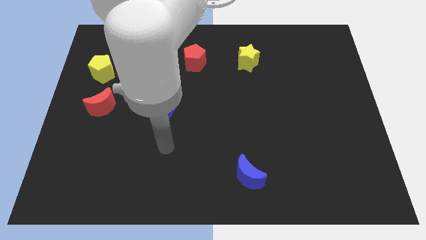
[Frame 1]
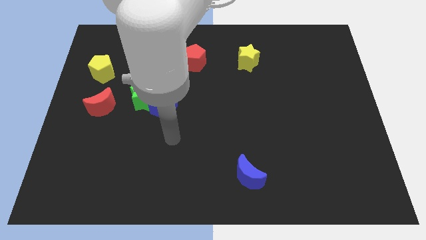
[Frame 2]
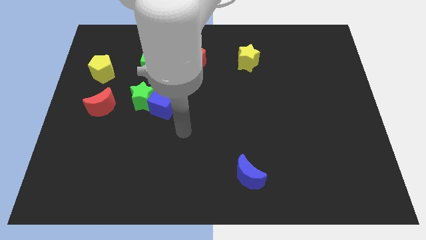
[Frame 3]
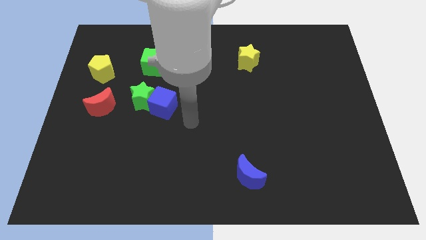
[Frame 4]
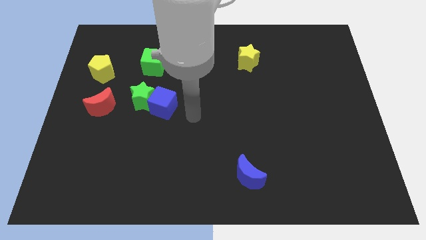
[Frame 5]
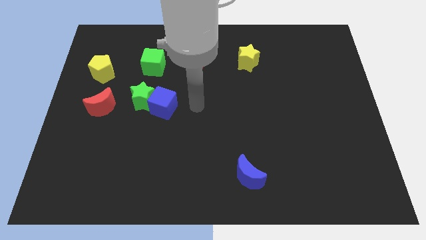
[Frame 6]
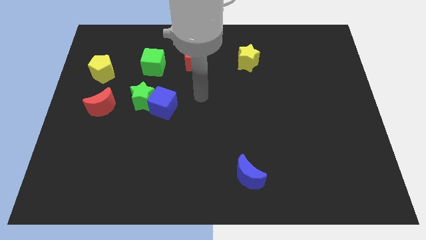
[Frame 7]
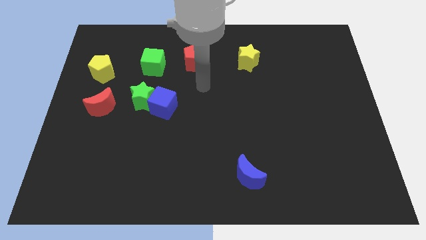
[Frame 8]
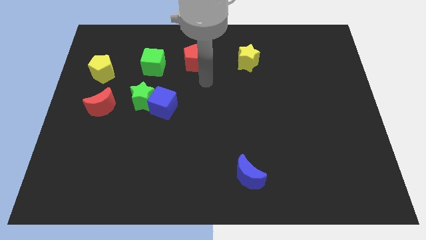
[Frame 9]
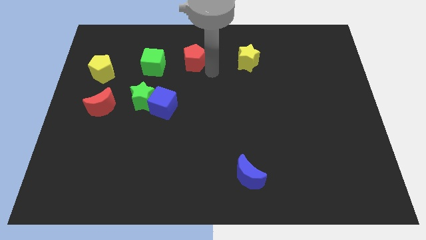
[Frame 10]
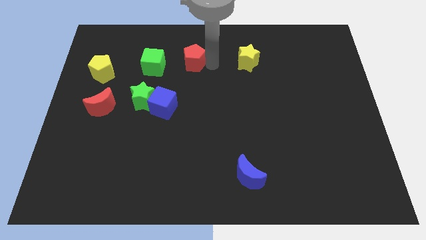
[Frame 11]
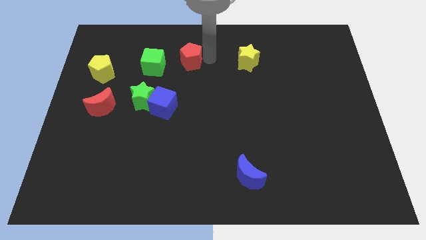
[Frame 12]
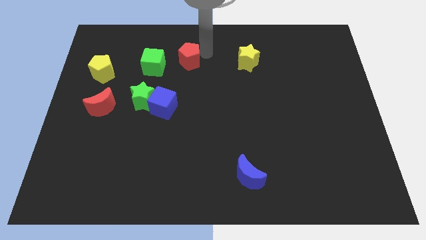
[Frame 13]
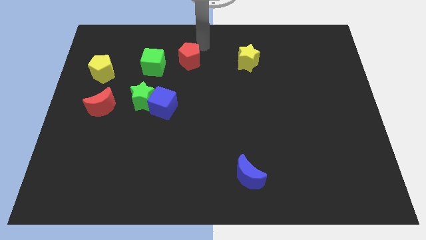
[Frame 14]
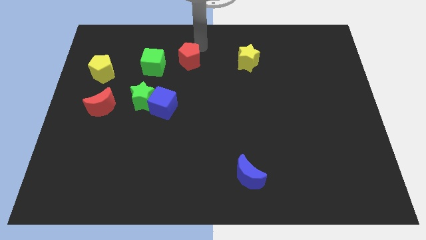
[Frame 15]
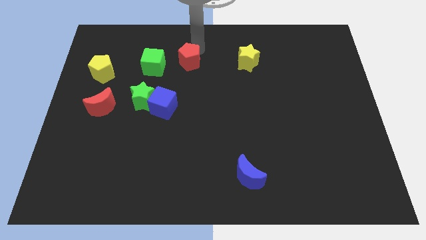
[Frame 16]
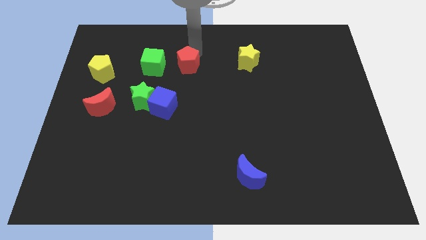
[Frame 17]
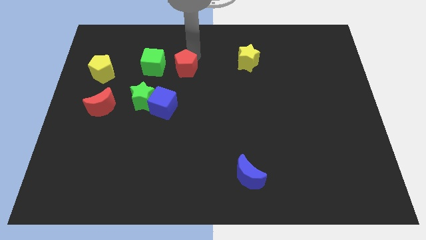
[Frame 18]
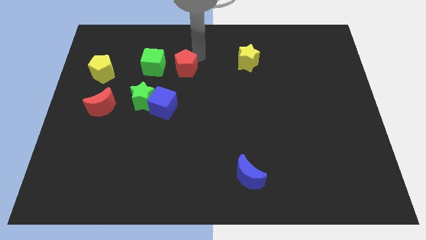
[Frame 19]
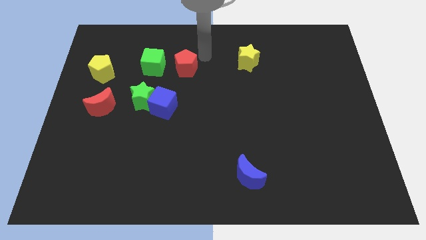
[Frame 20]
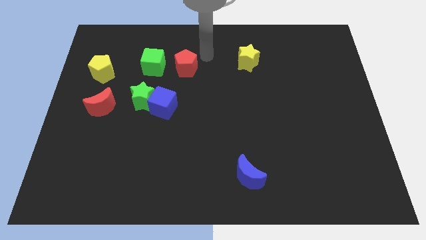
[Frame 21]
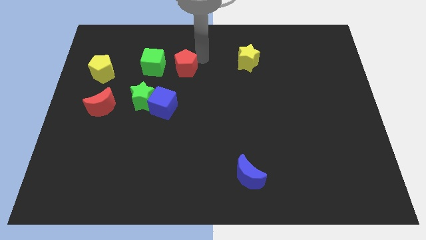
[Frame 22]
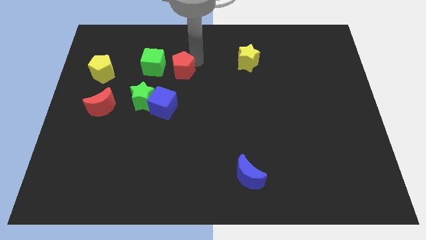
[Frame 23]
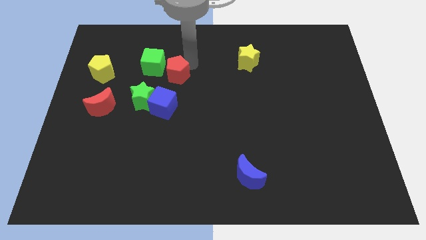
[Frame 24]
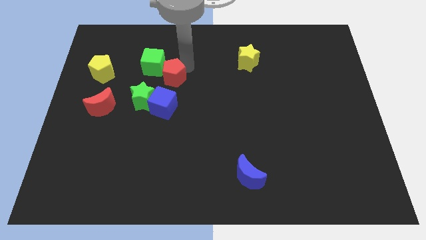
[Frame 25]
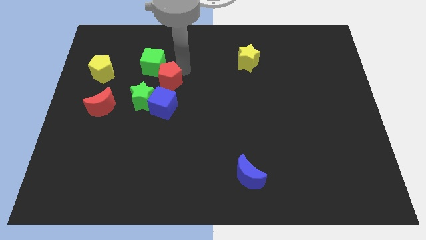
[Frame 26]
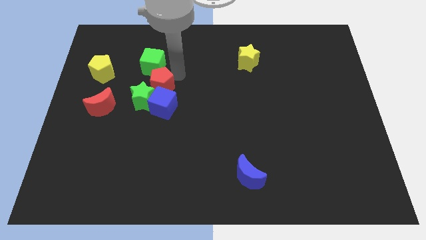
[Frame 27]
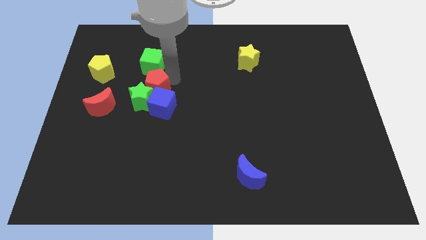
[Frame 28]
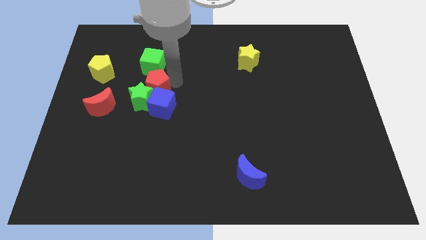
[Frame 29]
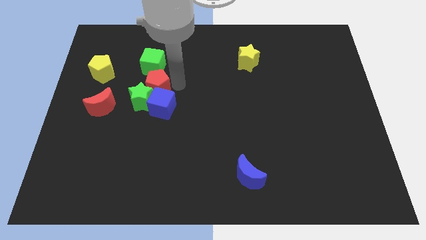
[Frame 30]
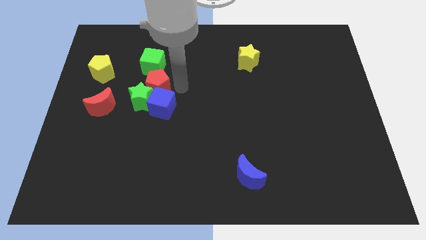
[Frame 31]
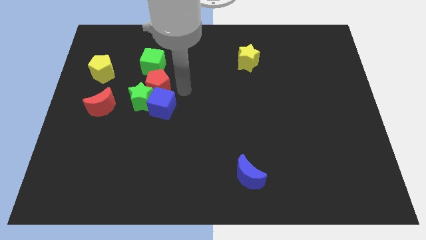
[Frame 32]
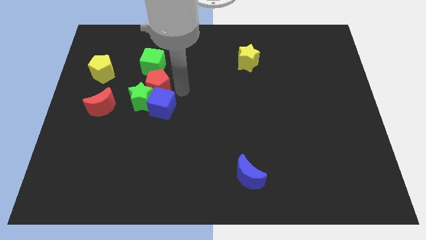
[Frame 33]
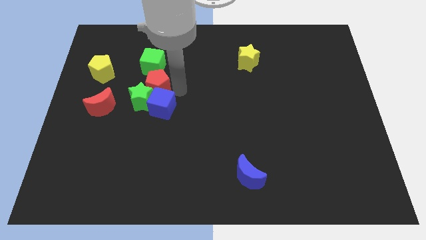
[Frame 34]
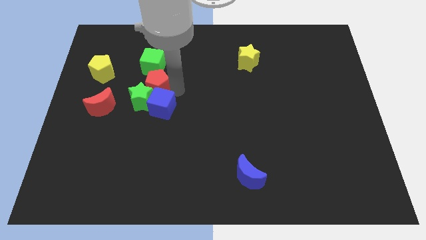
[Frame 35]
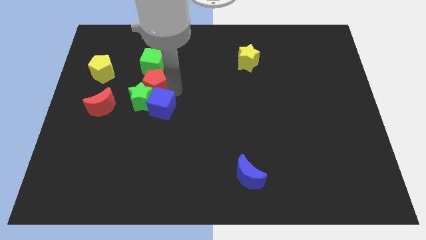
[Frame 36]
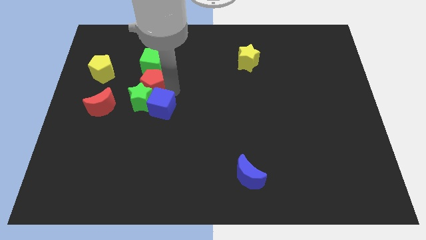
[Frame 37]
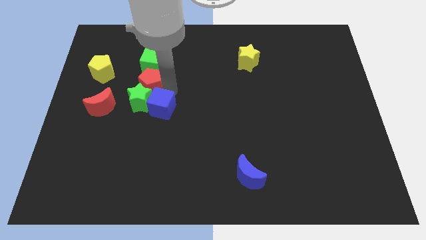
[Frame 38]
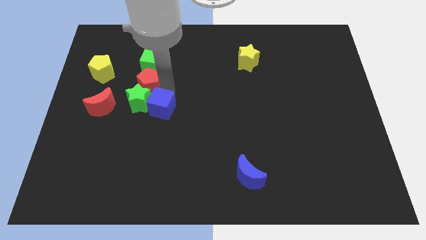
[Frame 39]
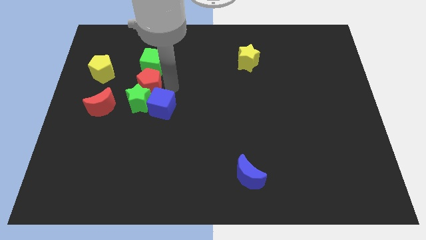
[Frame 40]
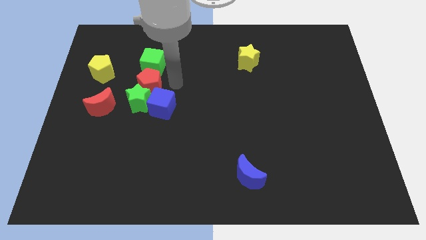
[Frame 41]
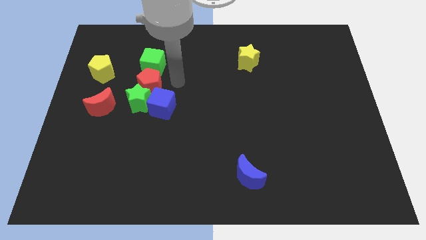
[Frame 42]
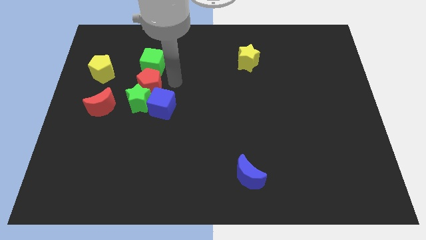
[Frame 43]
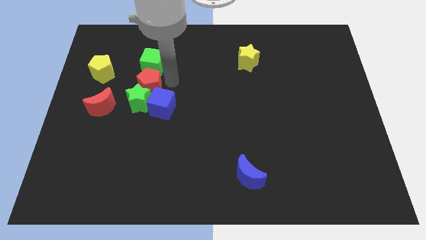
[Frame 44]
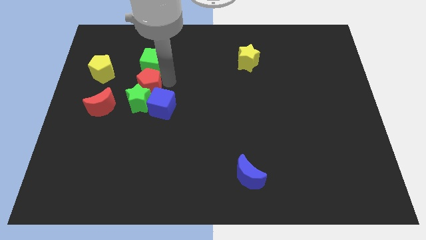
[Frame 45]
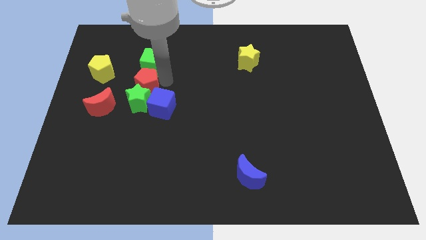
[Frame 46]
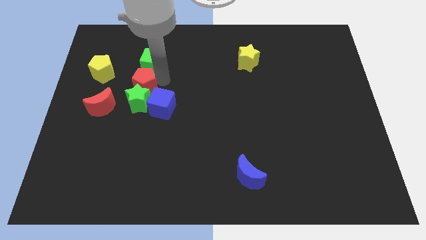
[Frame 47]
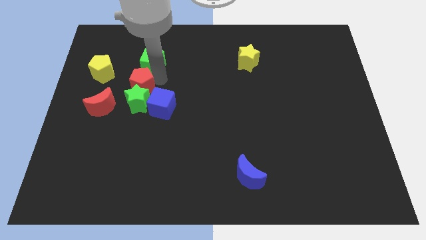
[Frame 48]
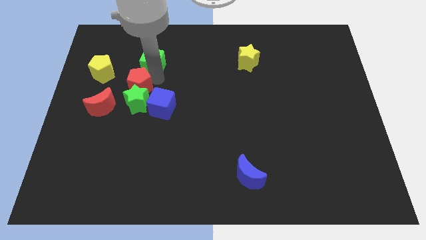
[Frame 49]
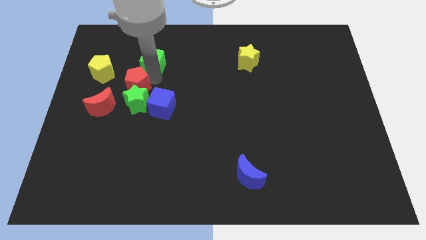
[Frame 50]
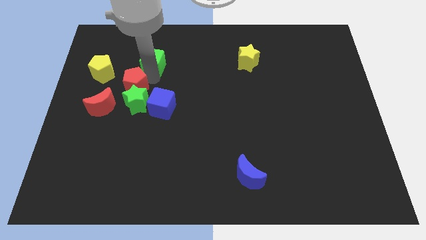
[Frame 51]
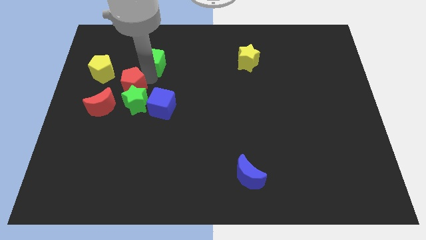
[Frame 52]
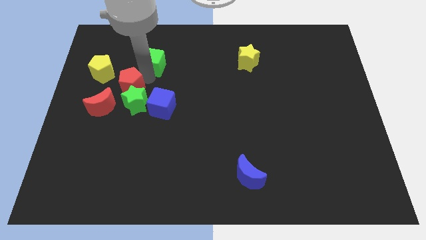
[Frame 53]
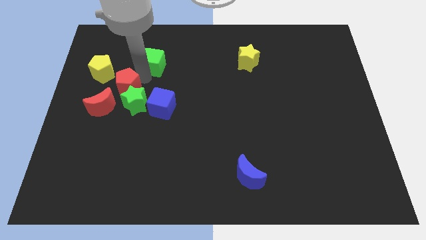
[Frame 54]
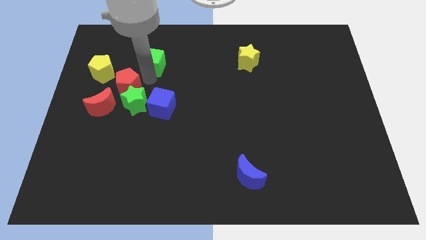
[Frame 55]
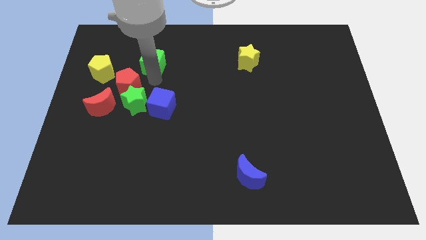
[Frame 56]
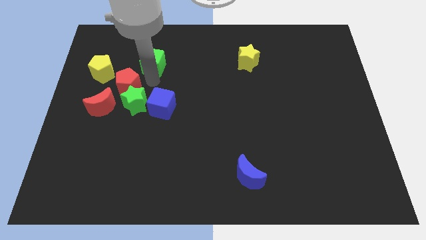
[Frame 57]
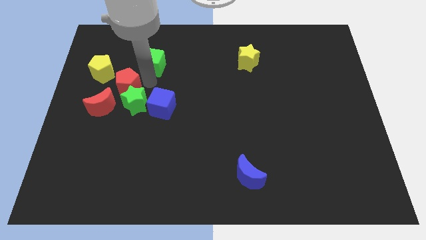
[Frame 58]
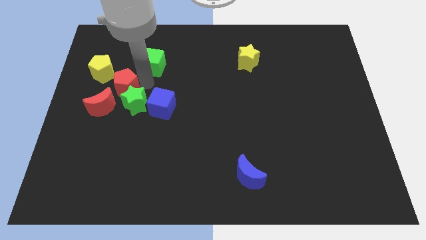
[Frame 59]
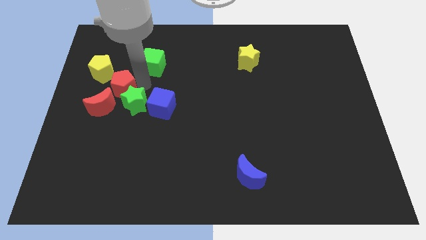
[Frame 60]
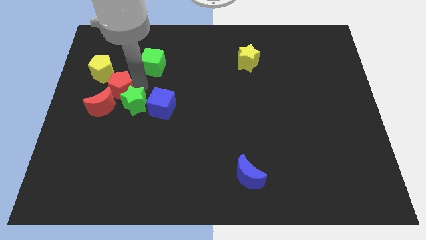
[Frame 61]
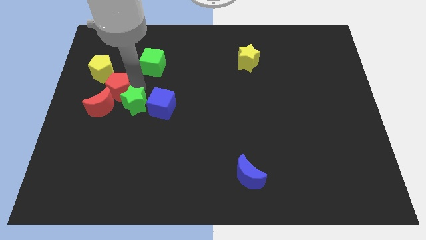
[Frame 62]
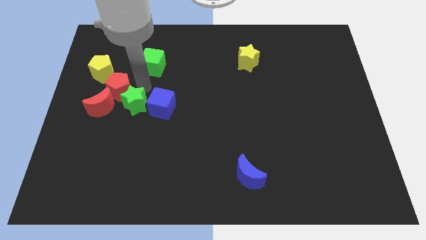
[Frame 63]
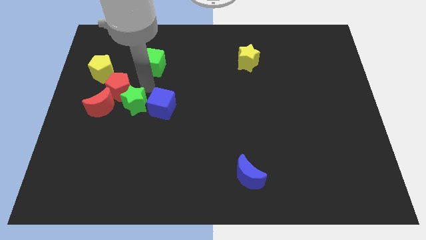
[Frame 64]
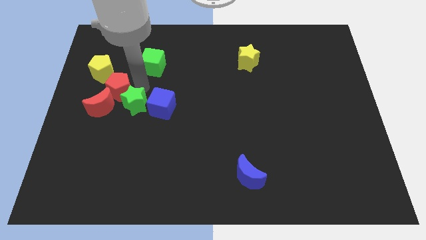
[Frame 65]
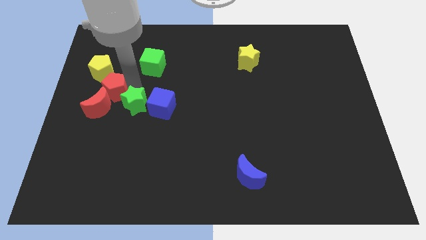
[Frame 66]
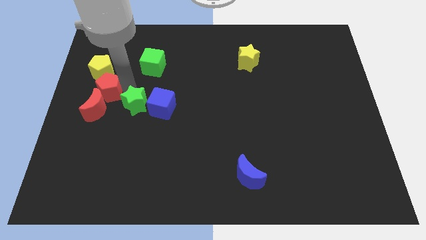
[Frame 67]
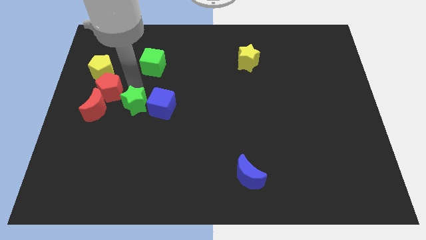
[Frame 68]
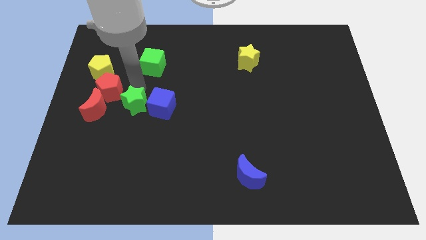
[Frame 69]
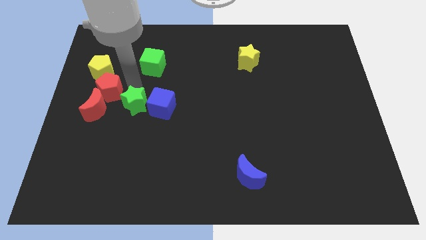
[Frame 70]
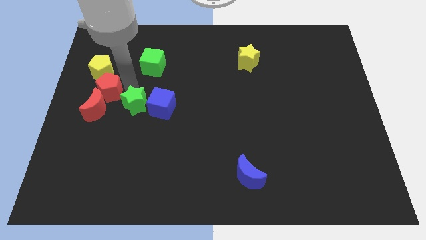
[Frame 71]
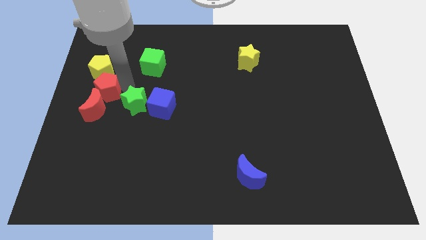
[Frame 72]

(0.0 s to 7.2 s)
push the red pentagon to the left side

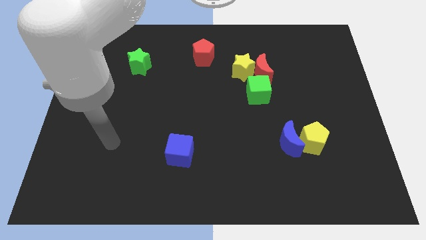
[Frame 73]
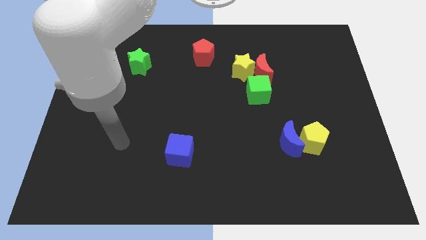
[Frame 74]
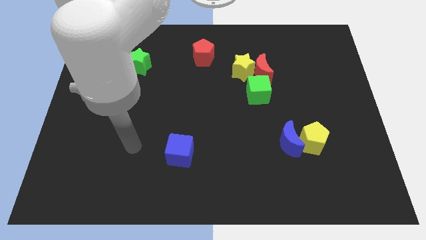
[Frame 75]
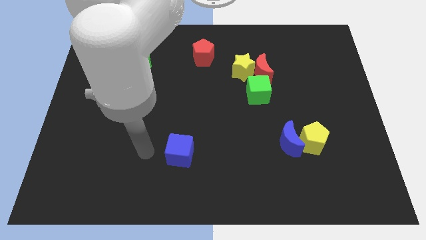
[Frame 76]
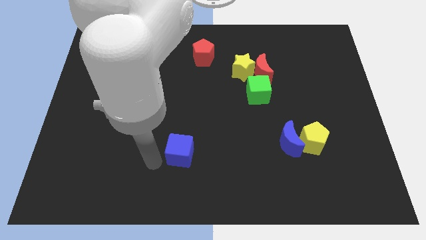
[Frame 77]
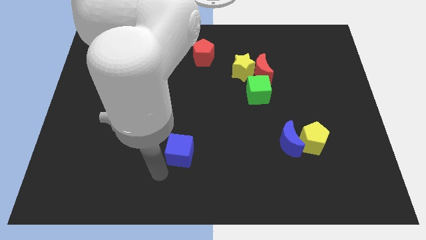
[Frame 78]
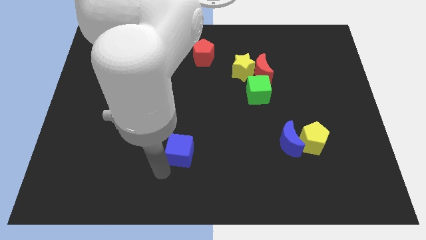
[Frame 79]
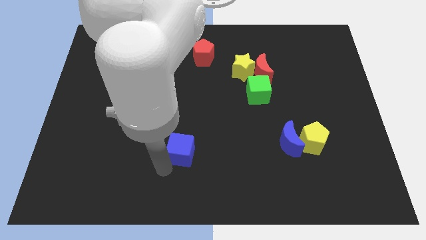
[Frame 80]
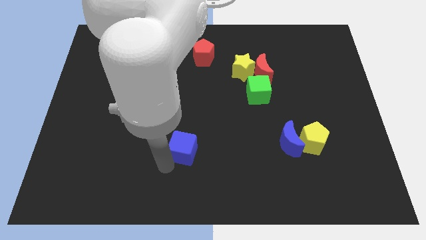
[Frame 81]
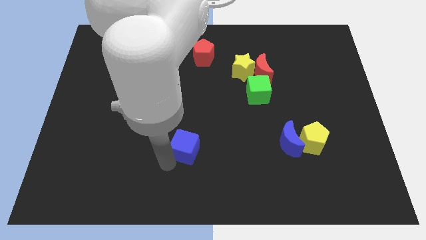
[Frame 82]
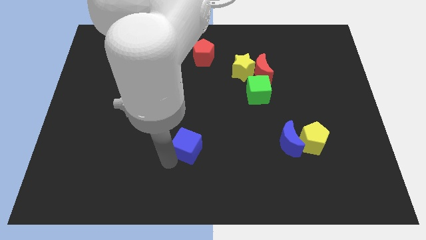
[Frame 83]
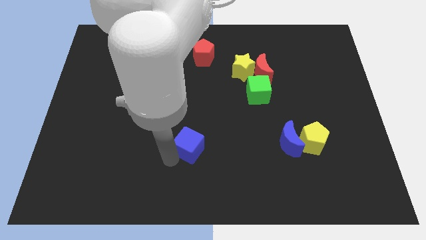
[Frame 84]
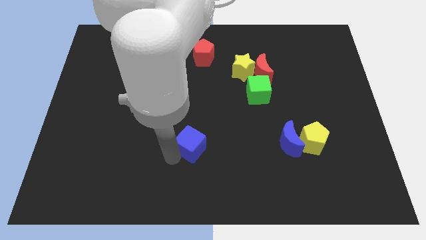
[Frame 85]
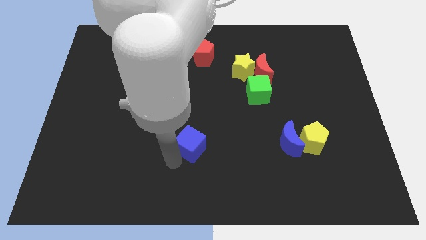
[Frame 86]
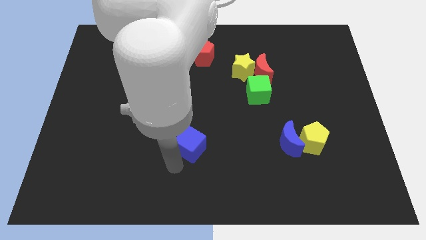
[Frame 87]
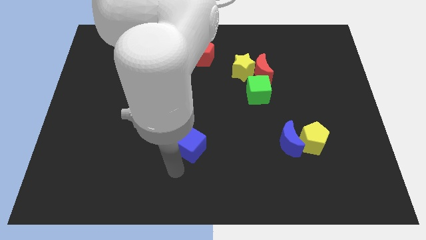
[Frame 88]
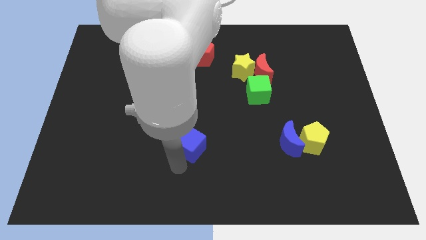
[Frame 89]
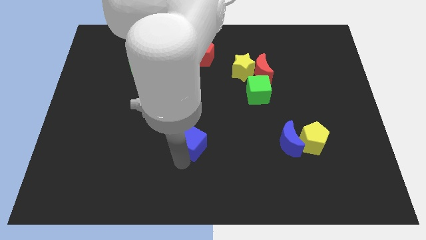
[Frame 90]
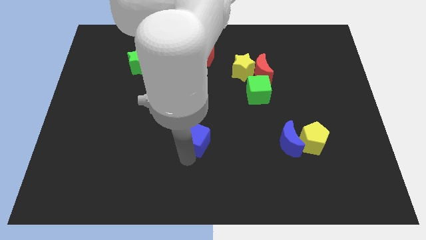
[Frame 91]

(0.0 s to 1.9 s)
slide the blue cube to the center of the board
